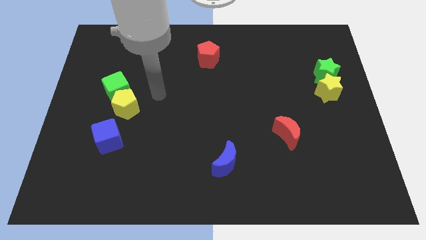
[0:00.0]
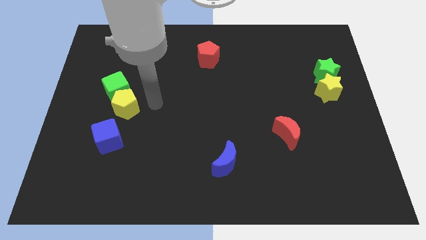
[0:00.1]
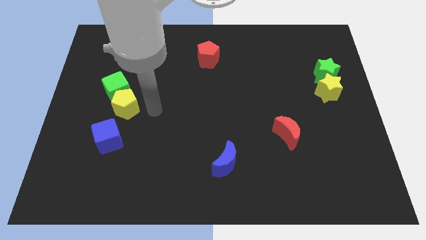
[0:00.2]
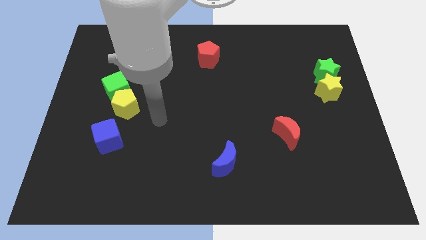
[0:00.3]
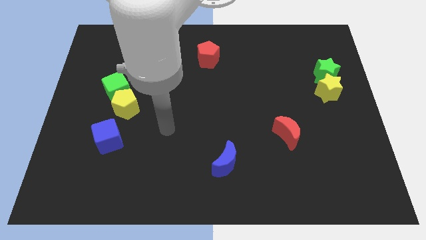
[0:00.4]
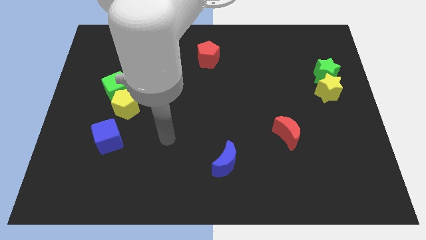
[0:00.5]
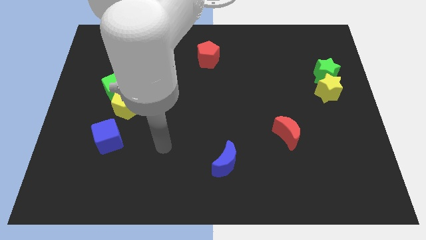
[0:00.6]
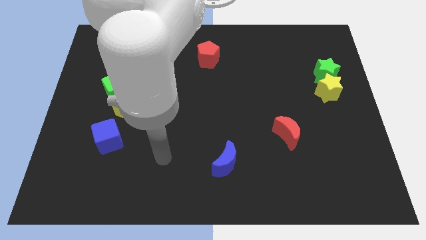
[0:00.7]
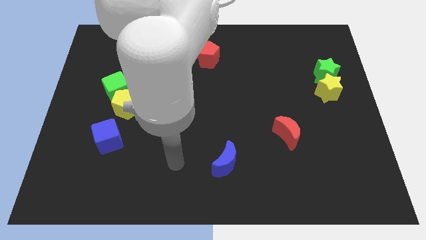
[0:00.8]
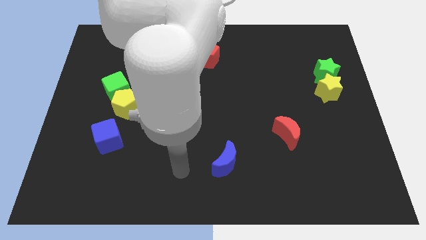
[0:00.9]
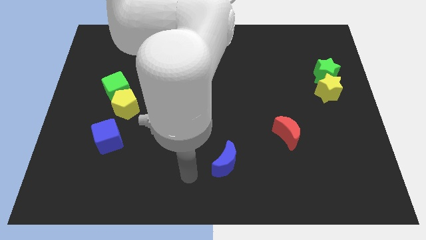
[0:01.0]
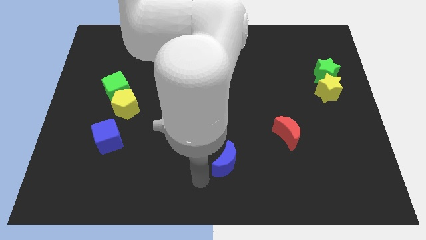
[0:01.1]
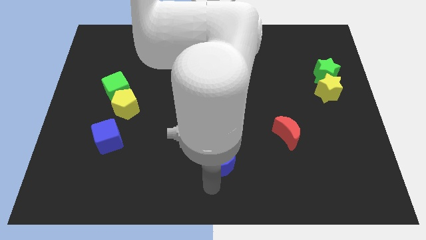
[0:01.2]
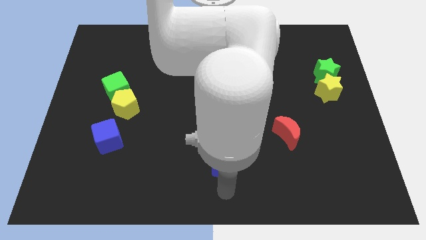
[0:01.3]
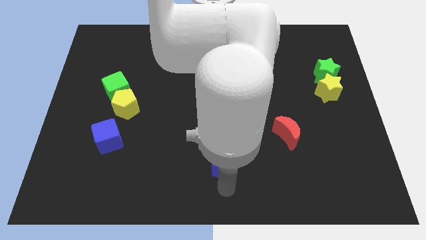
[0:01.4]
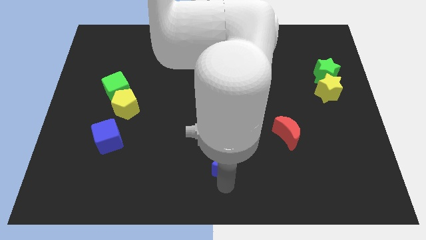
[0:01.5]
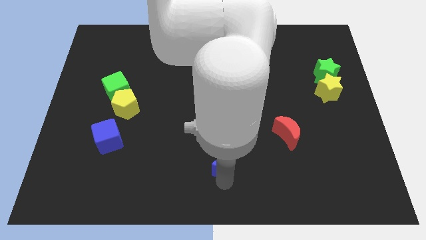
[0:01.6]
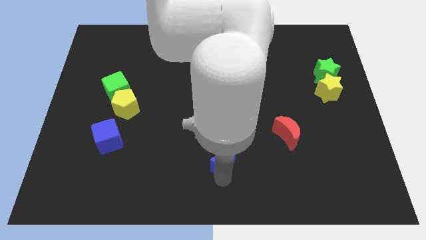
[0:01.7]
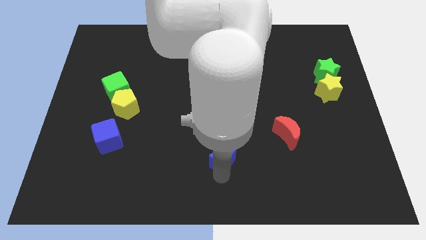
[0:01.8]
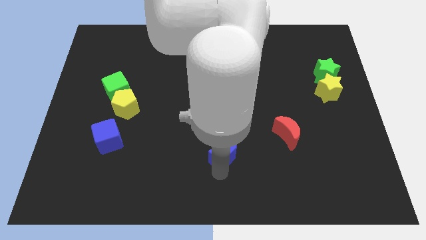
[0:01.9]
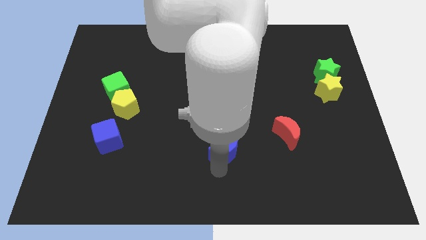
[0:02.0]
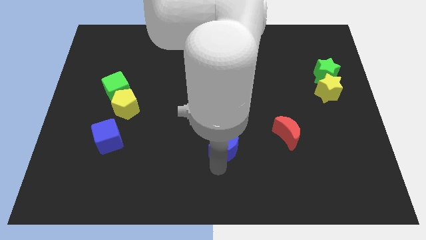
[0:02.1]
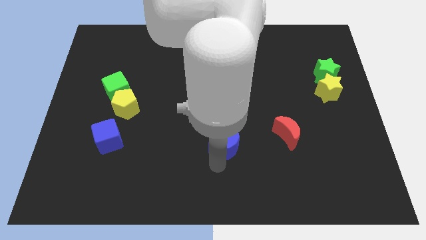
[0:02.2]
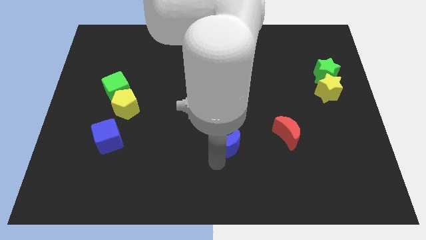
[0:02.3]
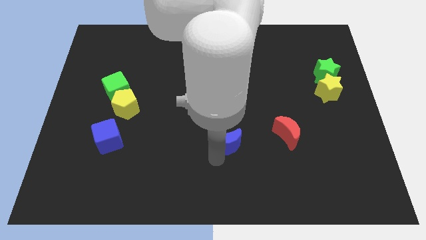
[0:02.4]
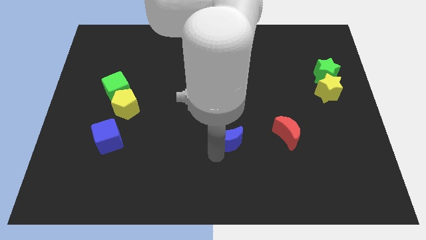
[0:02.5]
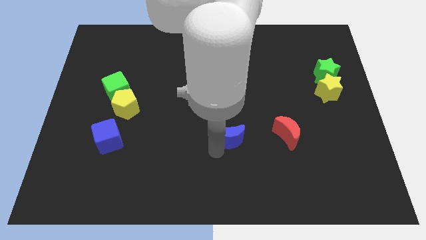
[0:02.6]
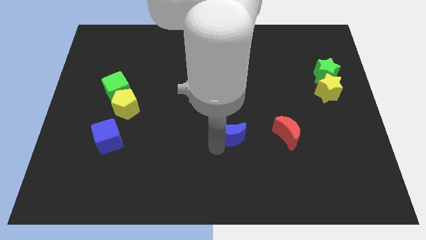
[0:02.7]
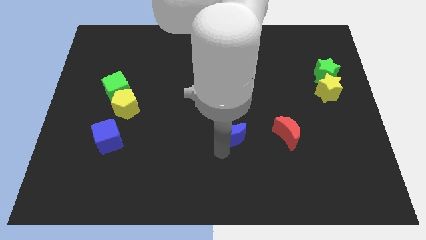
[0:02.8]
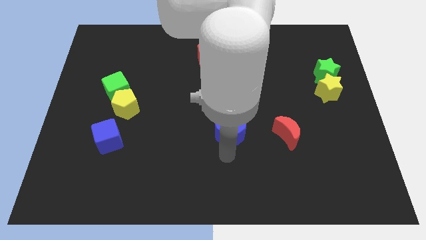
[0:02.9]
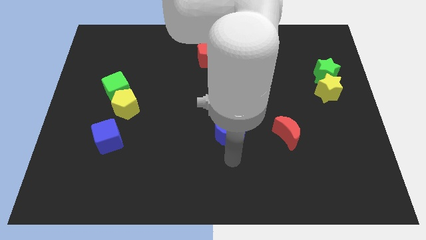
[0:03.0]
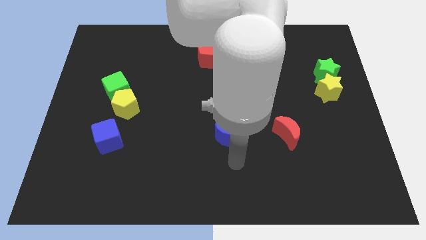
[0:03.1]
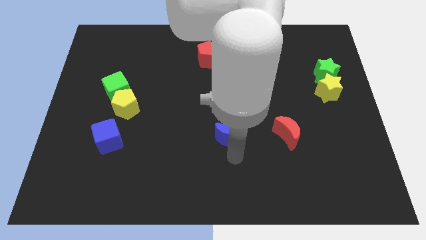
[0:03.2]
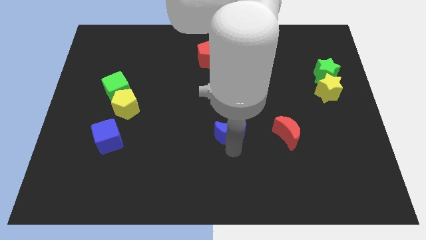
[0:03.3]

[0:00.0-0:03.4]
push the blue moon a little upwards

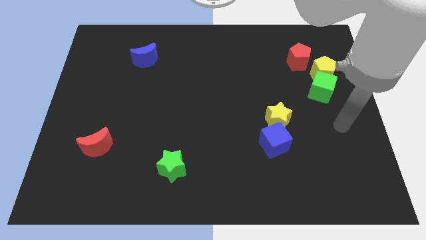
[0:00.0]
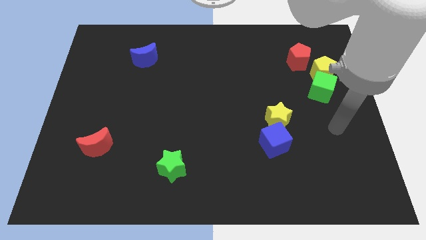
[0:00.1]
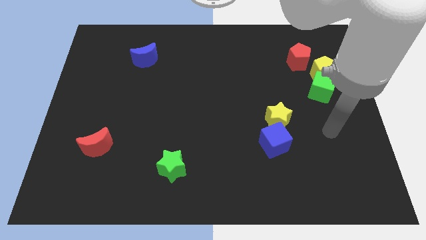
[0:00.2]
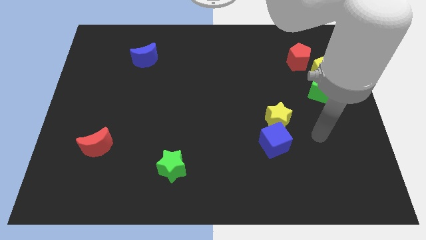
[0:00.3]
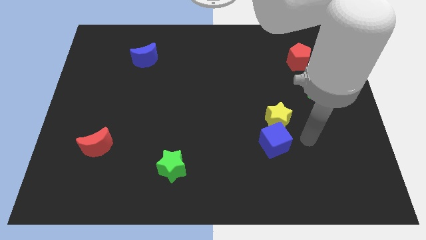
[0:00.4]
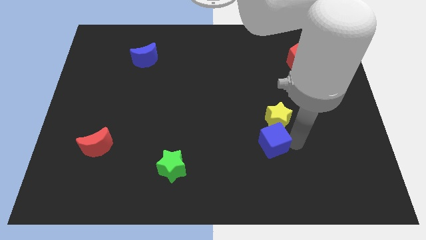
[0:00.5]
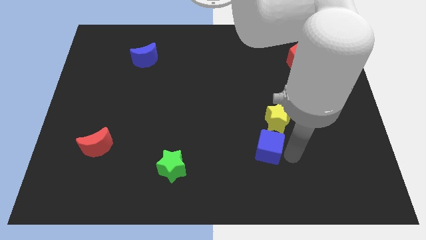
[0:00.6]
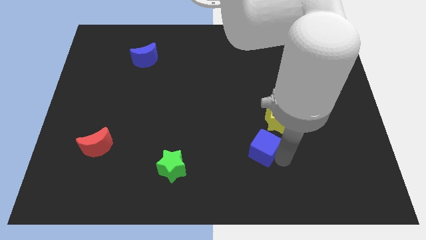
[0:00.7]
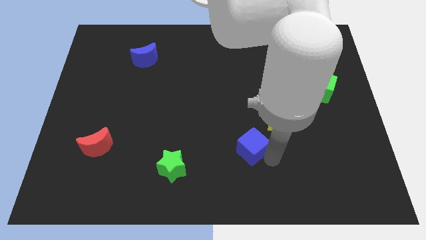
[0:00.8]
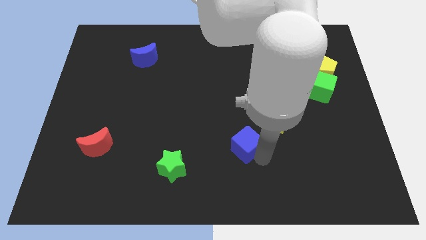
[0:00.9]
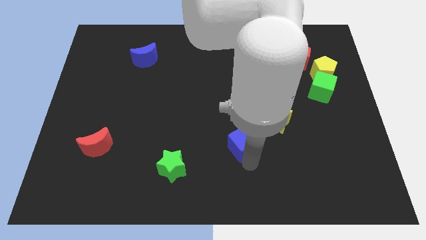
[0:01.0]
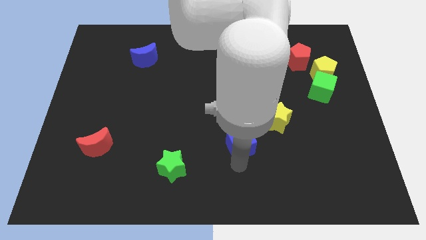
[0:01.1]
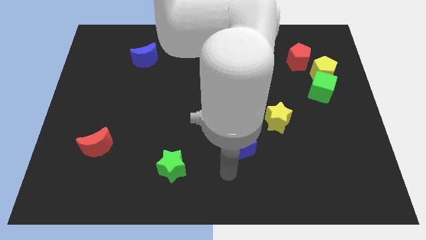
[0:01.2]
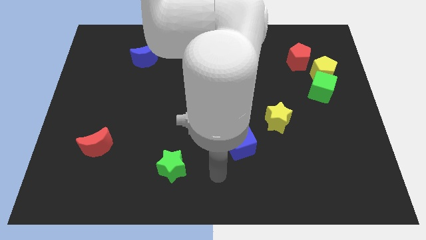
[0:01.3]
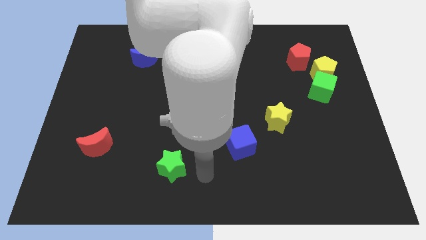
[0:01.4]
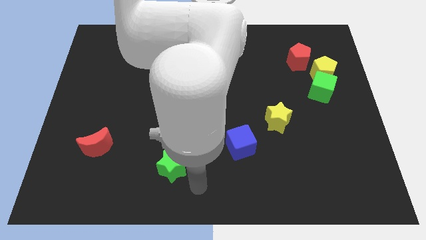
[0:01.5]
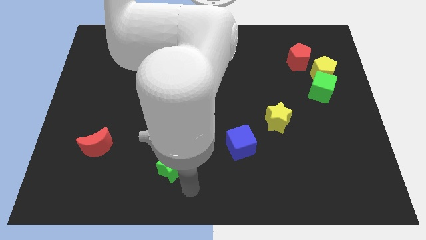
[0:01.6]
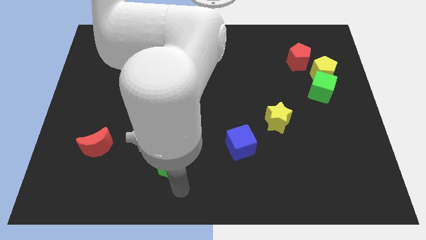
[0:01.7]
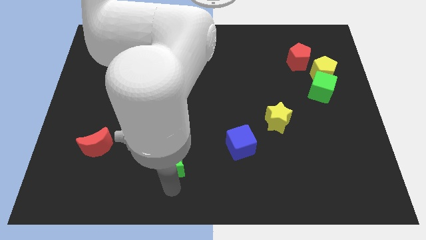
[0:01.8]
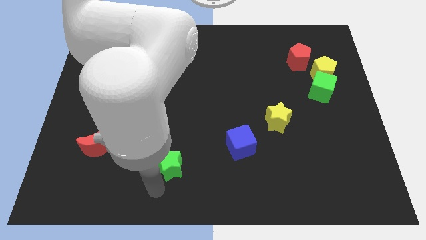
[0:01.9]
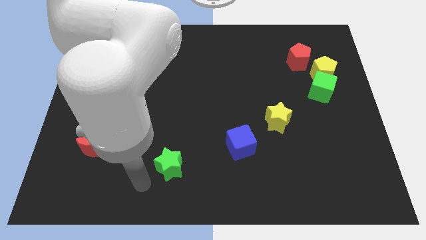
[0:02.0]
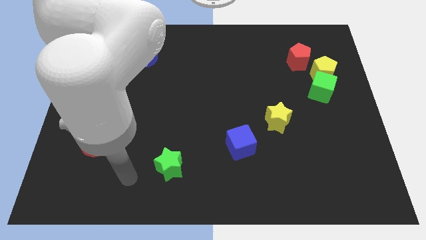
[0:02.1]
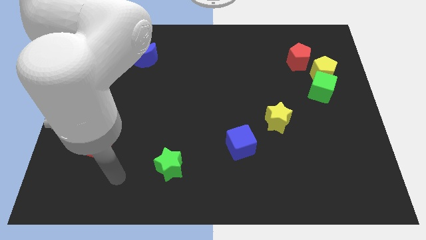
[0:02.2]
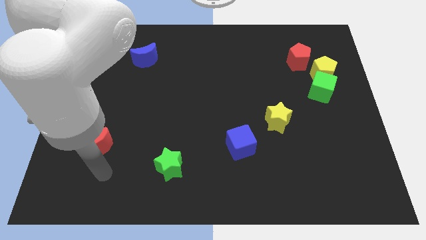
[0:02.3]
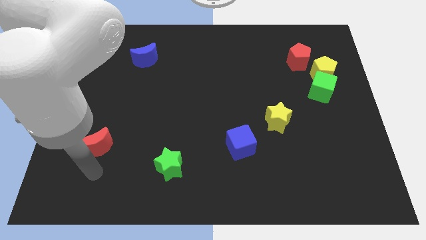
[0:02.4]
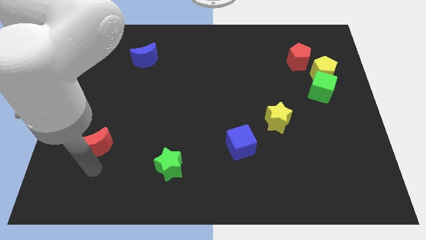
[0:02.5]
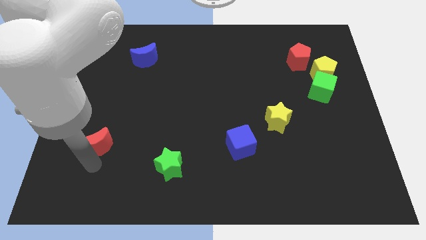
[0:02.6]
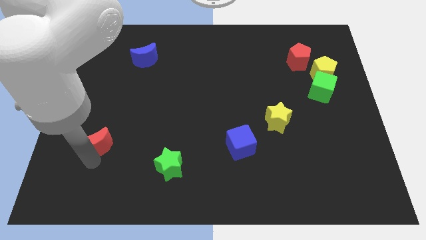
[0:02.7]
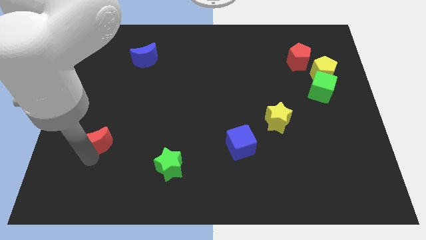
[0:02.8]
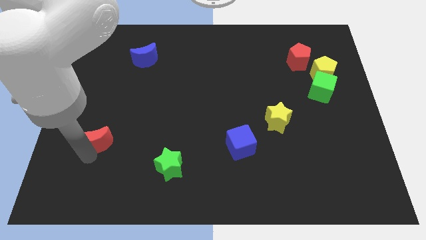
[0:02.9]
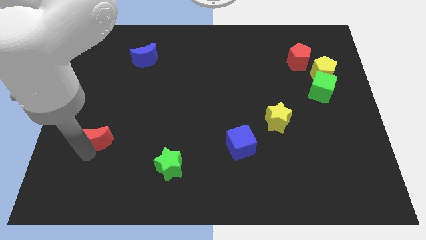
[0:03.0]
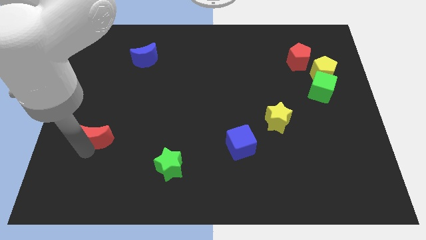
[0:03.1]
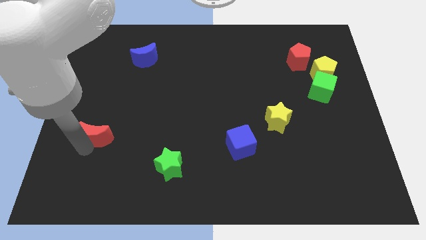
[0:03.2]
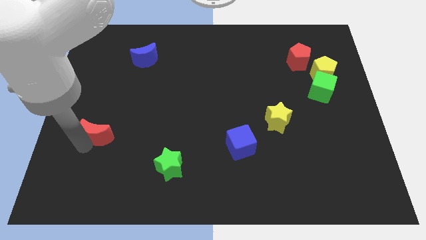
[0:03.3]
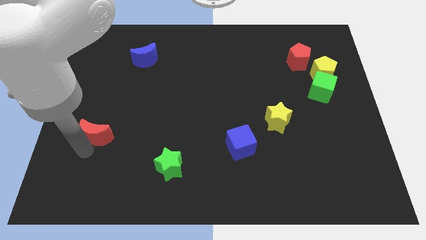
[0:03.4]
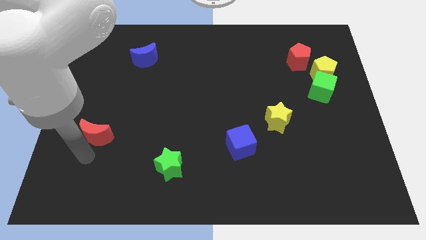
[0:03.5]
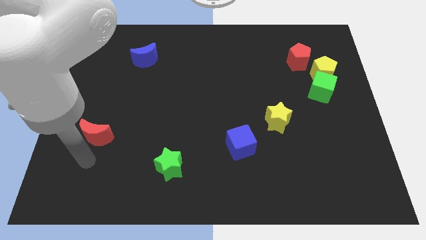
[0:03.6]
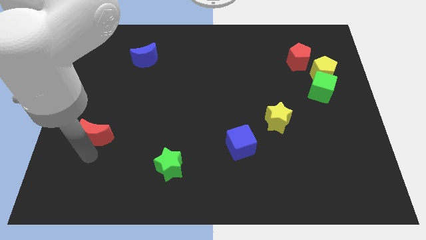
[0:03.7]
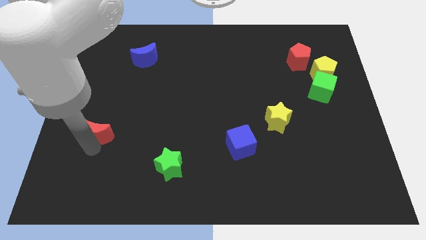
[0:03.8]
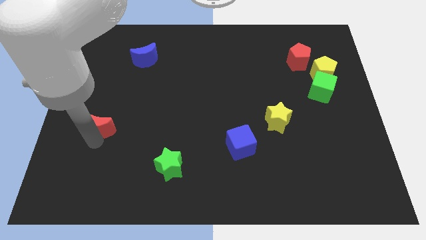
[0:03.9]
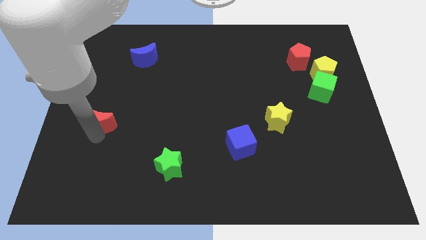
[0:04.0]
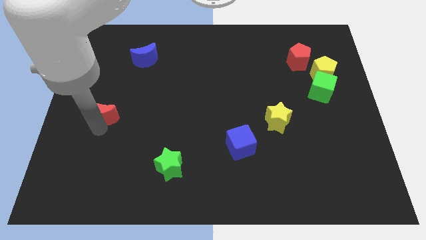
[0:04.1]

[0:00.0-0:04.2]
push the red moon upwards a little

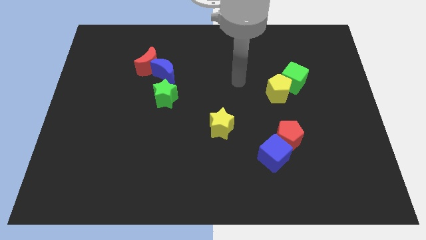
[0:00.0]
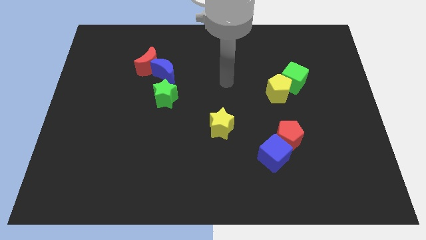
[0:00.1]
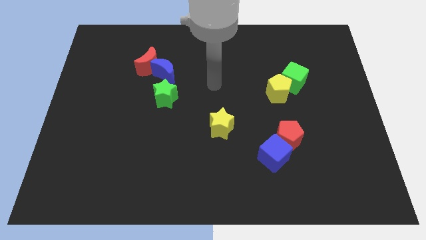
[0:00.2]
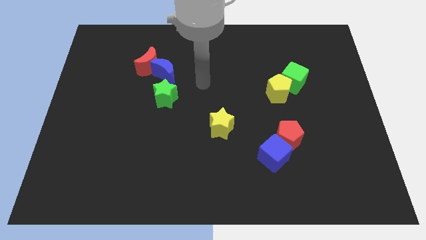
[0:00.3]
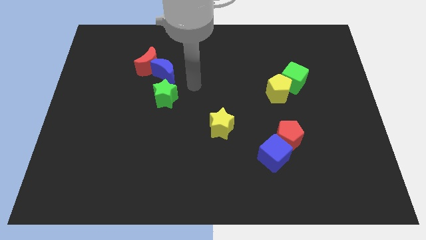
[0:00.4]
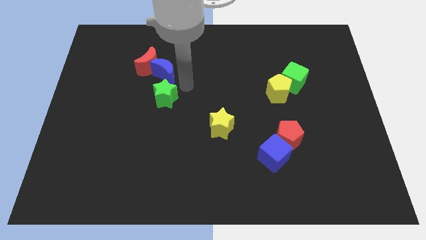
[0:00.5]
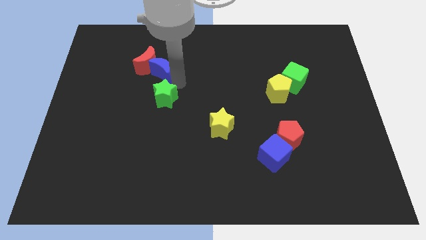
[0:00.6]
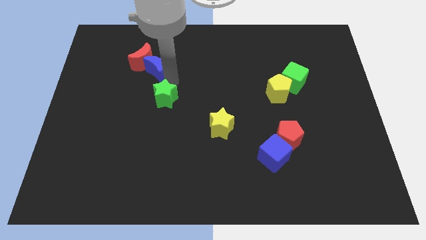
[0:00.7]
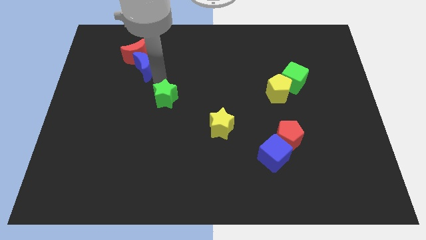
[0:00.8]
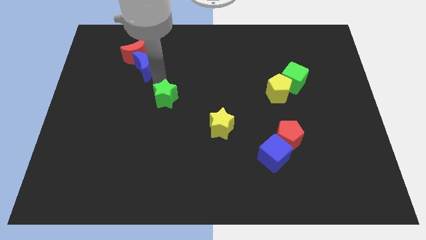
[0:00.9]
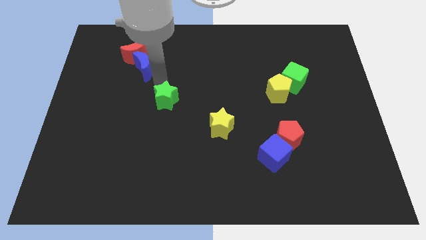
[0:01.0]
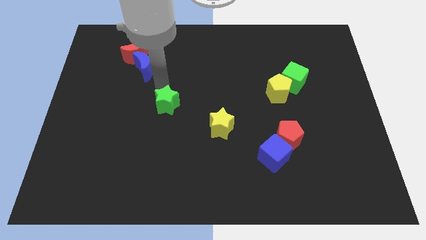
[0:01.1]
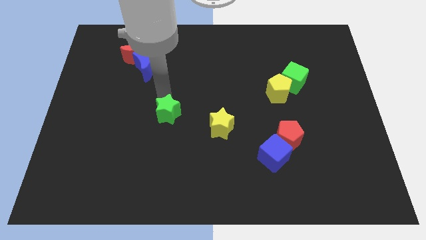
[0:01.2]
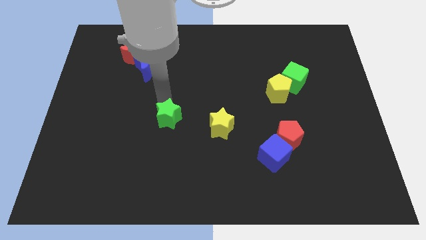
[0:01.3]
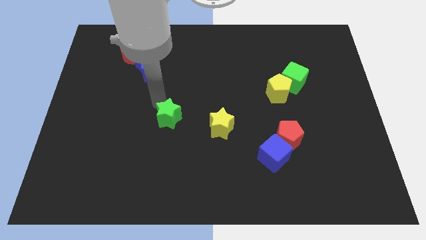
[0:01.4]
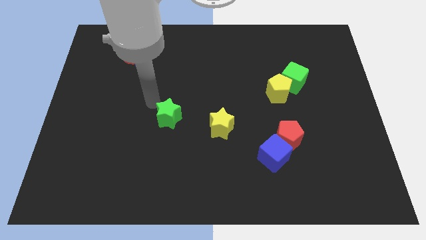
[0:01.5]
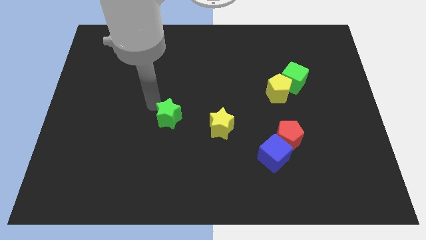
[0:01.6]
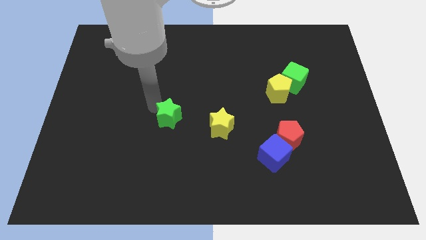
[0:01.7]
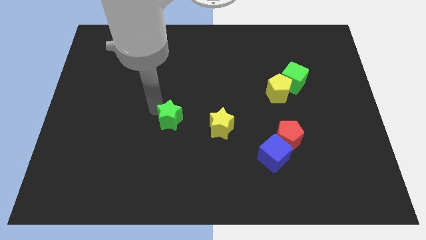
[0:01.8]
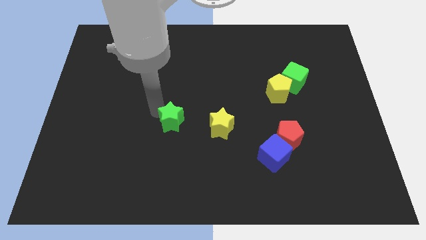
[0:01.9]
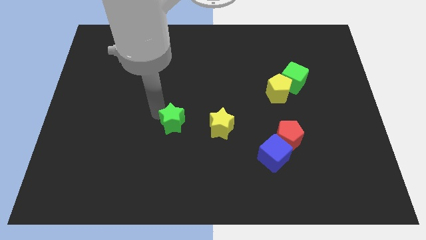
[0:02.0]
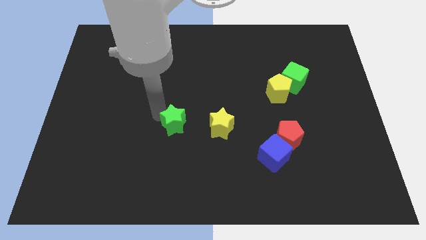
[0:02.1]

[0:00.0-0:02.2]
move the green star a bit diagonally down and right
